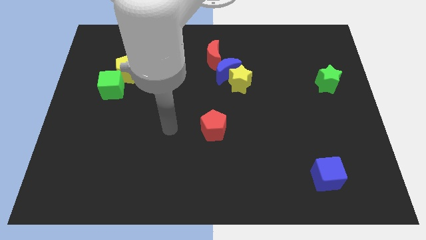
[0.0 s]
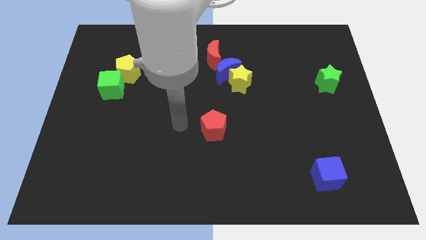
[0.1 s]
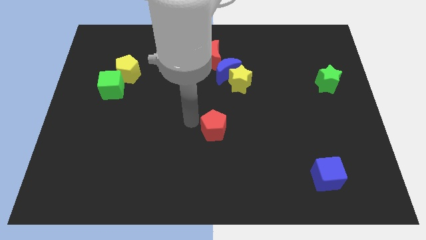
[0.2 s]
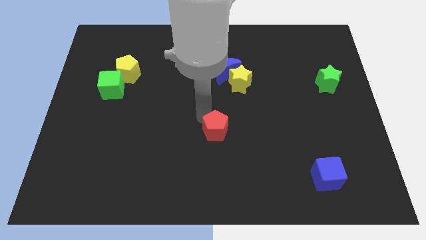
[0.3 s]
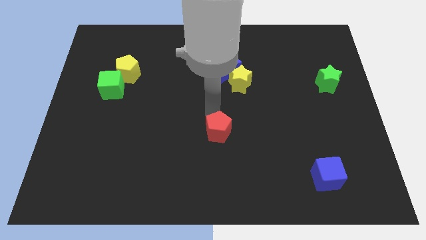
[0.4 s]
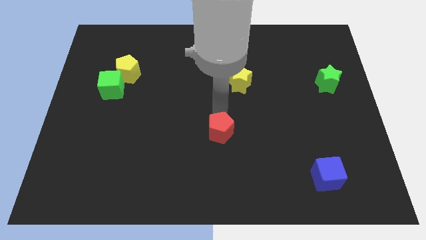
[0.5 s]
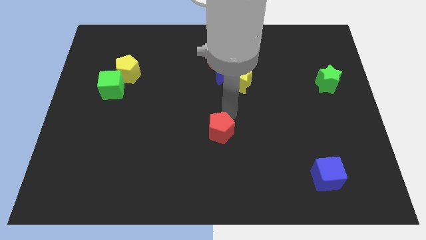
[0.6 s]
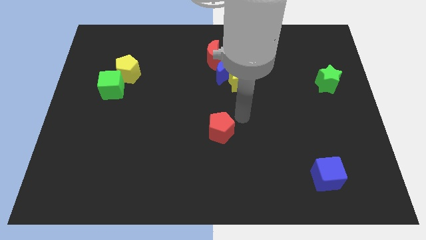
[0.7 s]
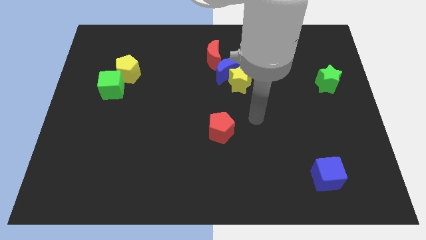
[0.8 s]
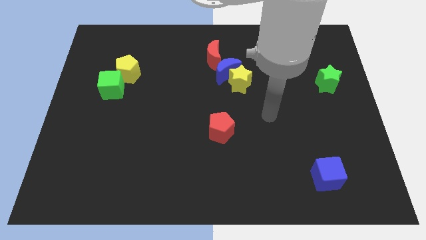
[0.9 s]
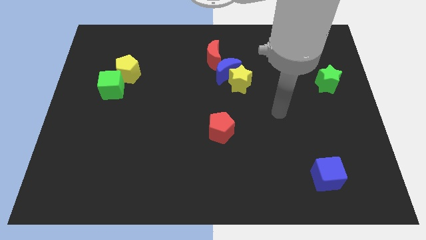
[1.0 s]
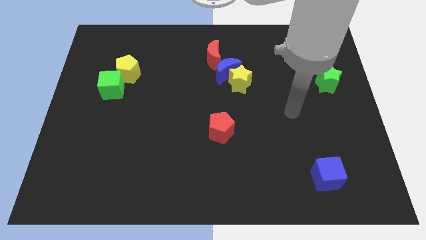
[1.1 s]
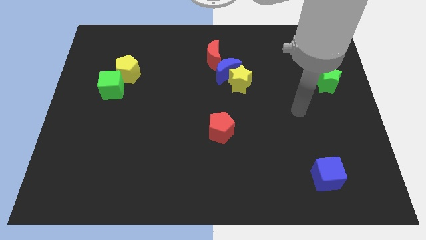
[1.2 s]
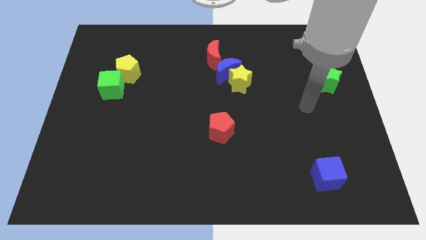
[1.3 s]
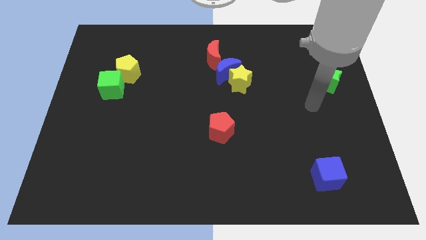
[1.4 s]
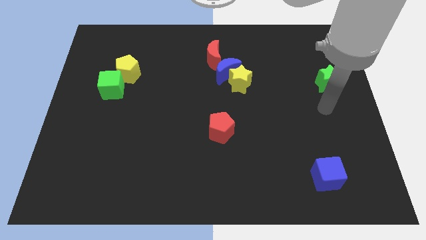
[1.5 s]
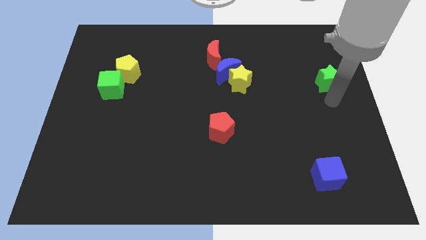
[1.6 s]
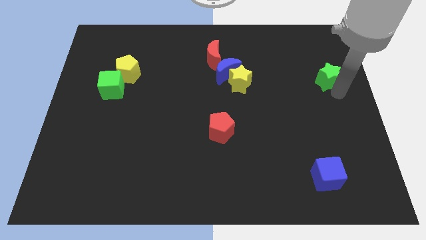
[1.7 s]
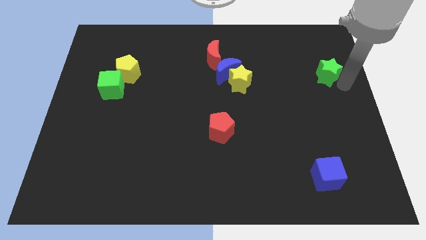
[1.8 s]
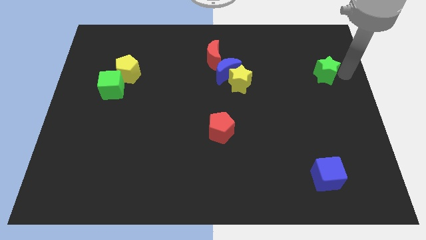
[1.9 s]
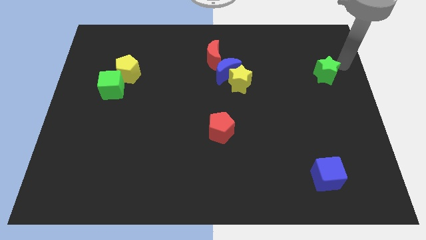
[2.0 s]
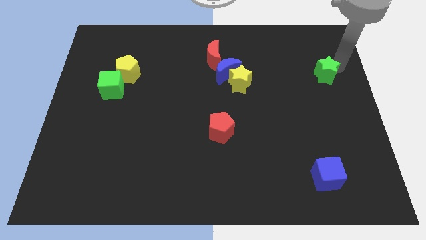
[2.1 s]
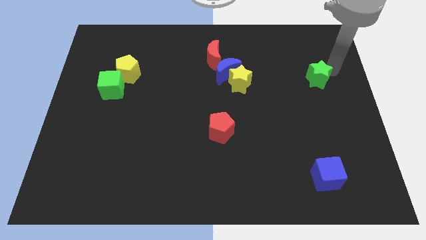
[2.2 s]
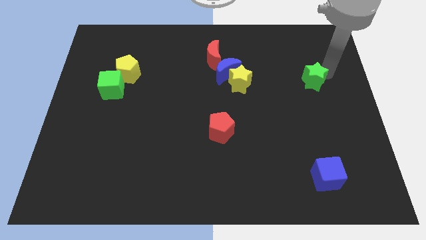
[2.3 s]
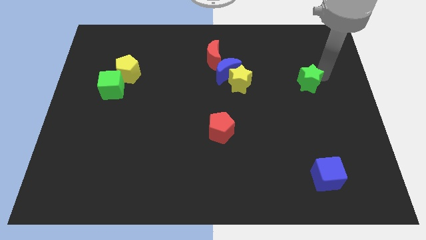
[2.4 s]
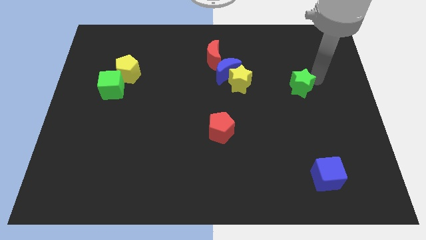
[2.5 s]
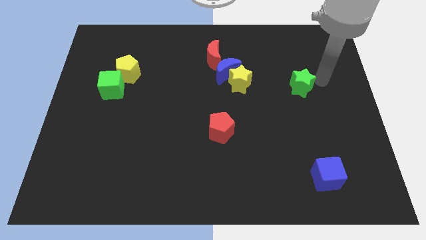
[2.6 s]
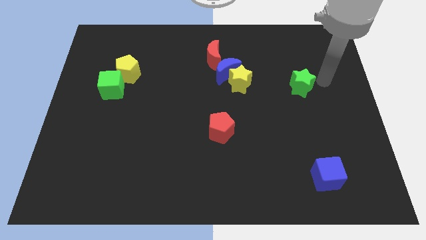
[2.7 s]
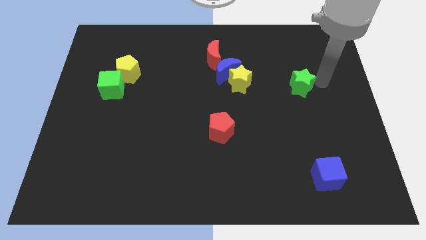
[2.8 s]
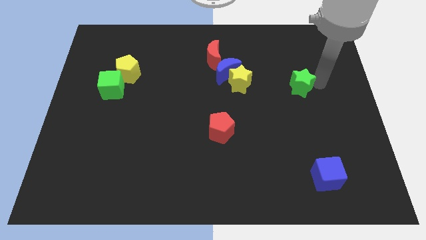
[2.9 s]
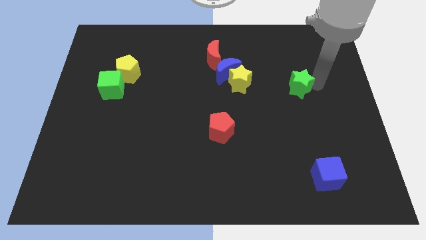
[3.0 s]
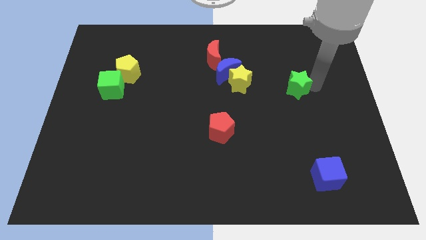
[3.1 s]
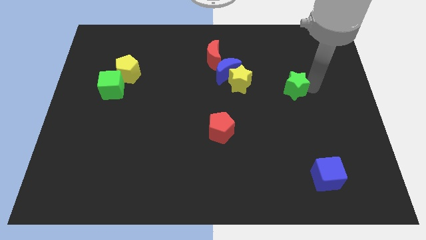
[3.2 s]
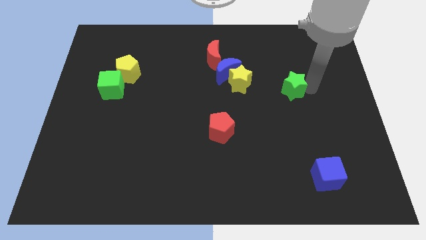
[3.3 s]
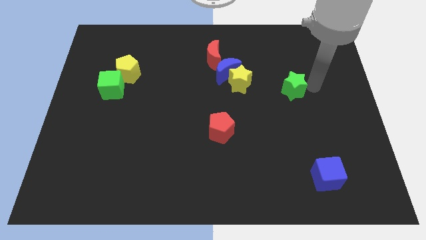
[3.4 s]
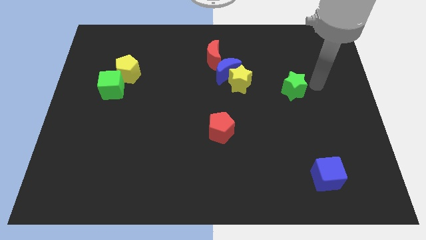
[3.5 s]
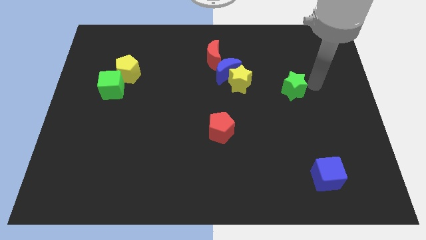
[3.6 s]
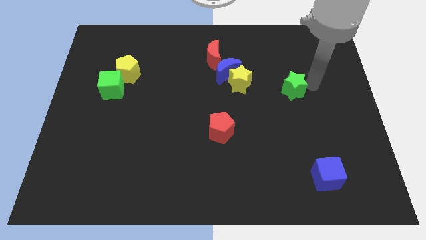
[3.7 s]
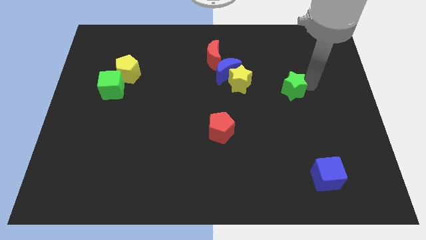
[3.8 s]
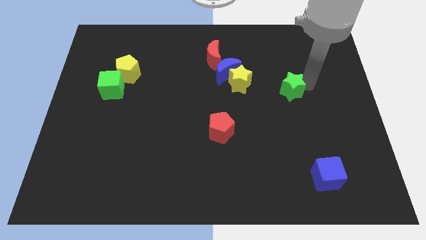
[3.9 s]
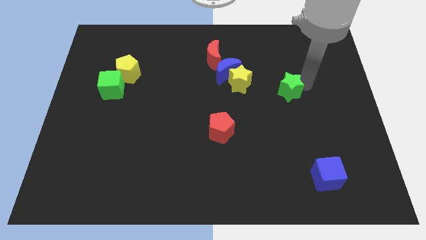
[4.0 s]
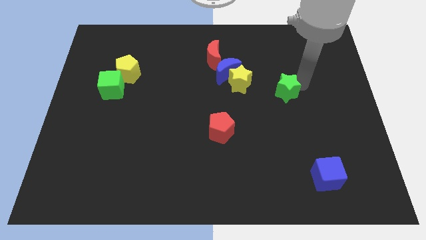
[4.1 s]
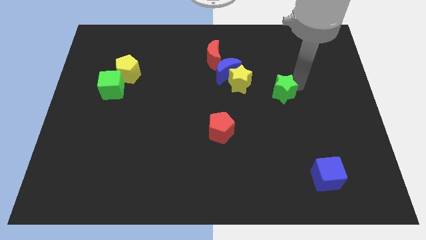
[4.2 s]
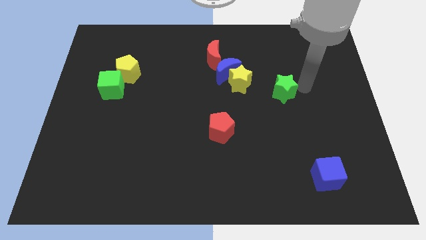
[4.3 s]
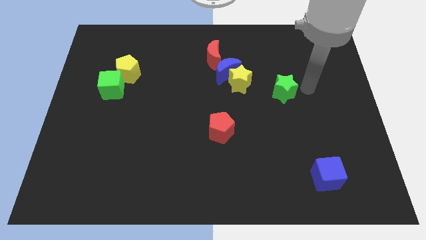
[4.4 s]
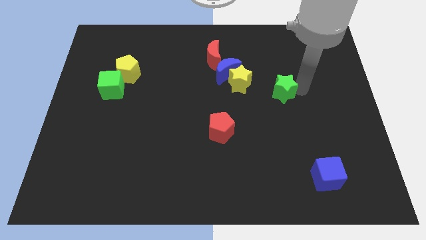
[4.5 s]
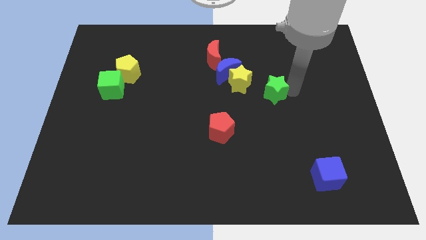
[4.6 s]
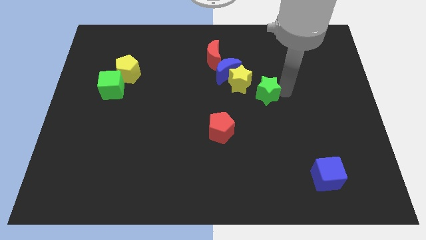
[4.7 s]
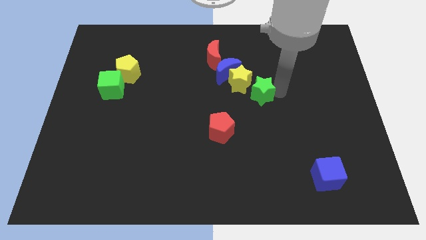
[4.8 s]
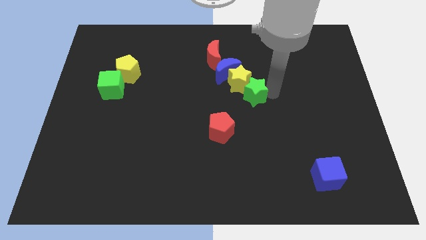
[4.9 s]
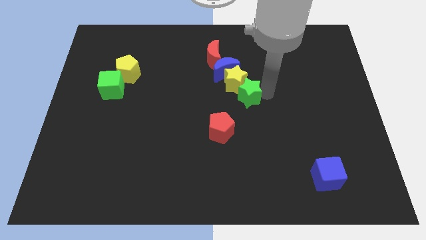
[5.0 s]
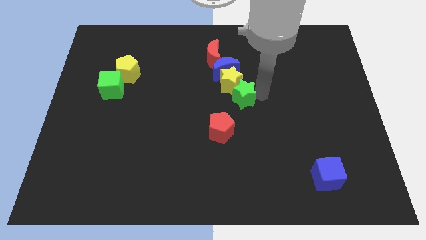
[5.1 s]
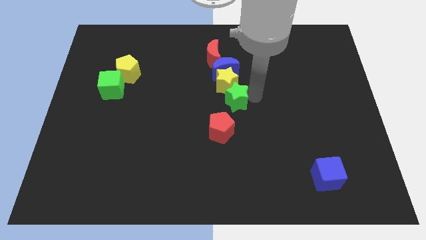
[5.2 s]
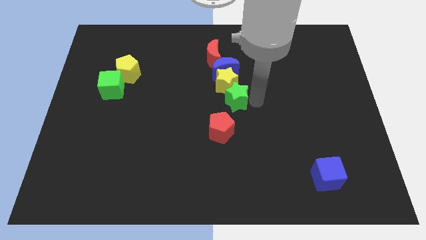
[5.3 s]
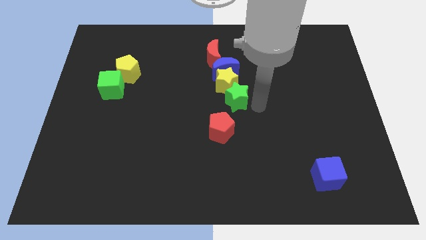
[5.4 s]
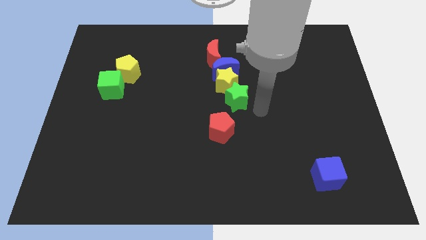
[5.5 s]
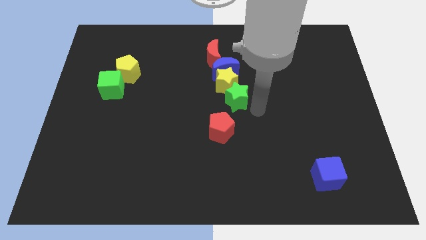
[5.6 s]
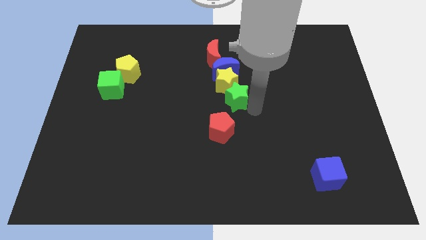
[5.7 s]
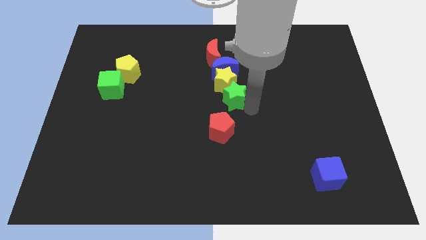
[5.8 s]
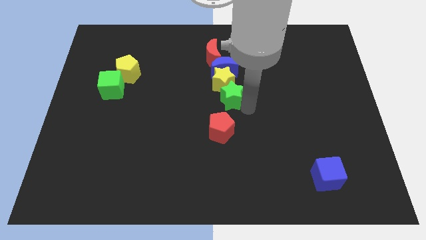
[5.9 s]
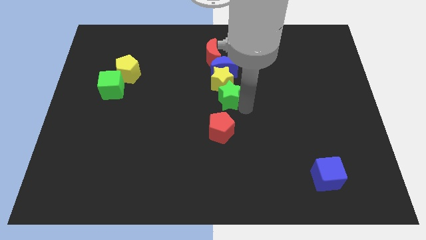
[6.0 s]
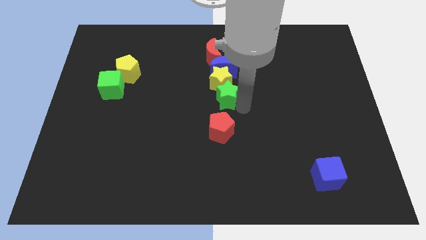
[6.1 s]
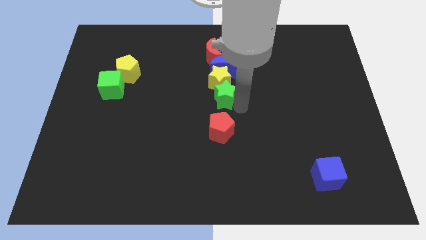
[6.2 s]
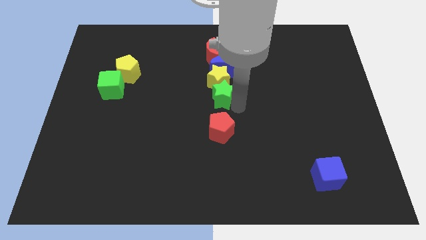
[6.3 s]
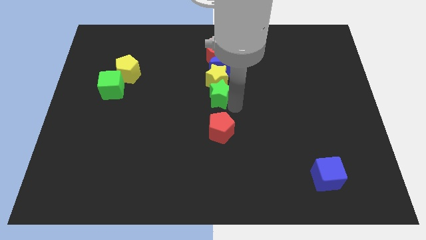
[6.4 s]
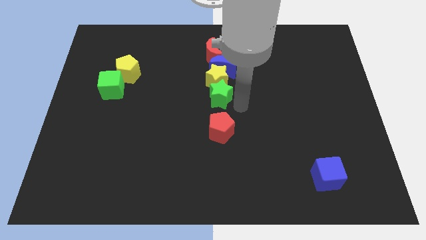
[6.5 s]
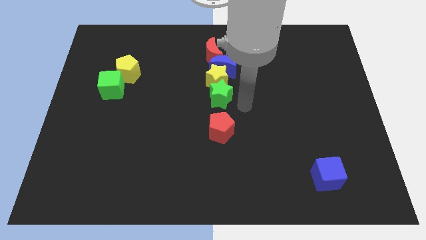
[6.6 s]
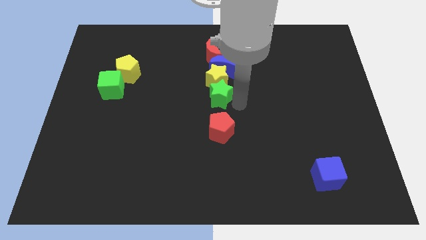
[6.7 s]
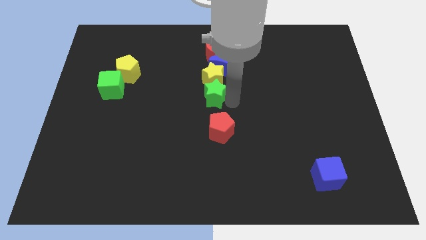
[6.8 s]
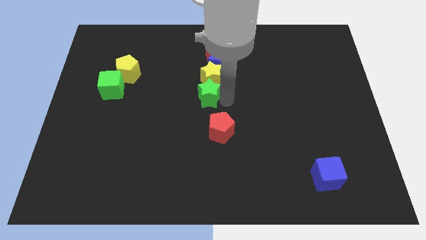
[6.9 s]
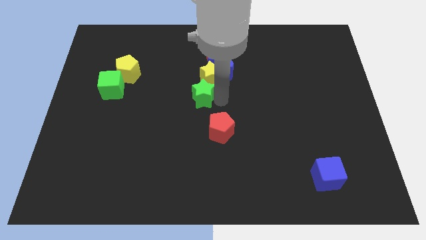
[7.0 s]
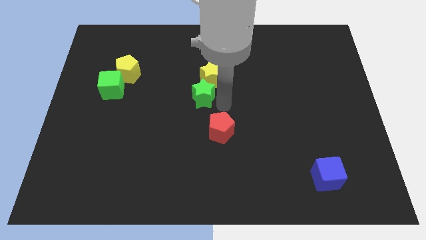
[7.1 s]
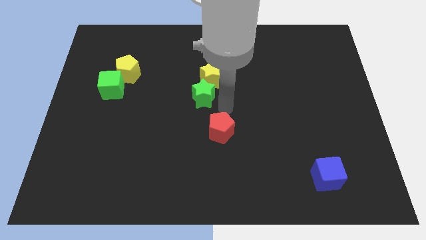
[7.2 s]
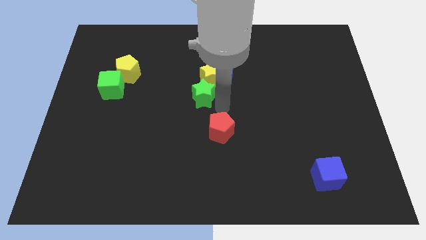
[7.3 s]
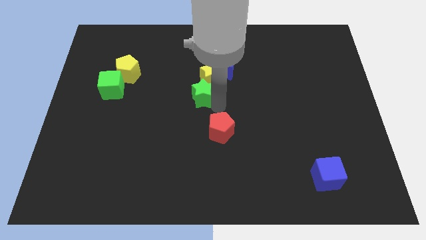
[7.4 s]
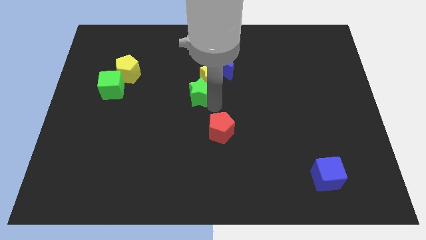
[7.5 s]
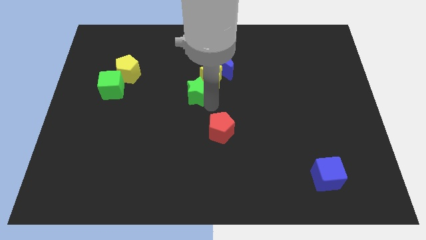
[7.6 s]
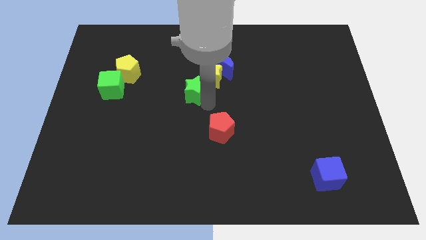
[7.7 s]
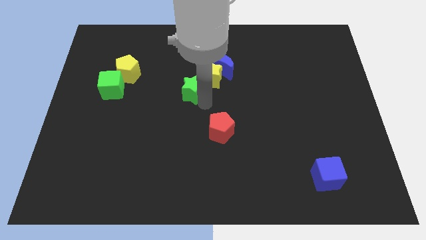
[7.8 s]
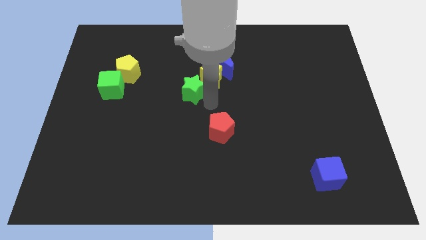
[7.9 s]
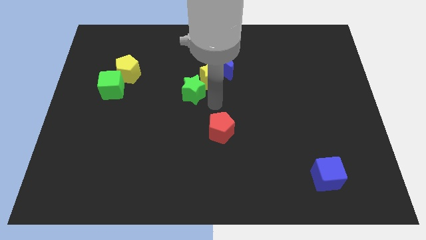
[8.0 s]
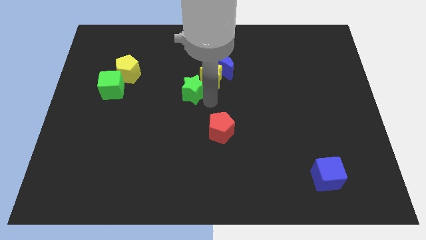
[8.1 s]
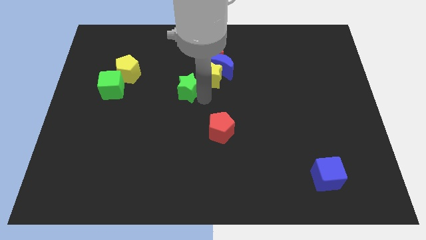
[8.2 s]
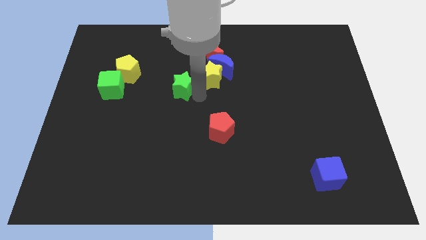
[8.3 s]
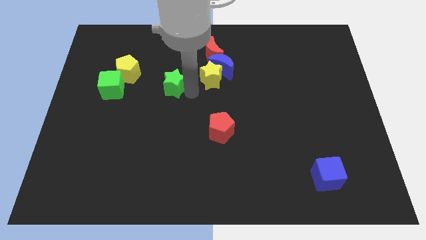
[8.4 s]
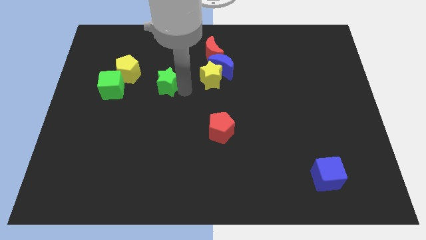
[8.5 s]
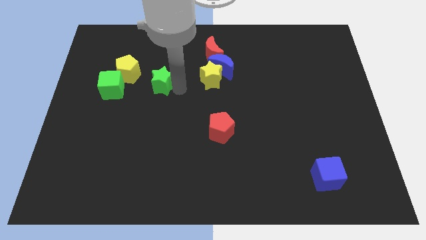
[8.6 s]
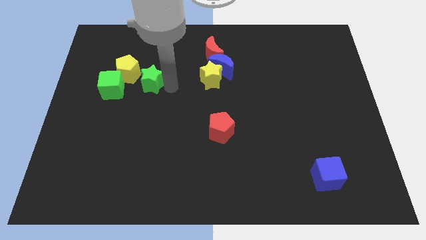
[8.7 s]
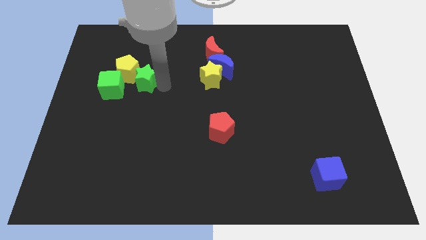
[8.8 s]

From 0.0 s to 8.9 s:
push the green star diagonally up and to the right of the green cube
